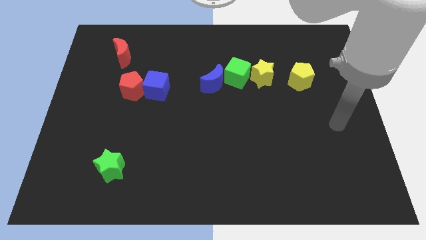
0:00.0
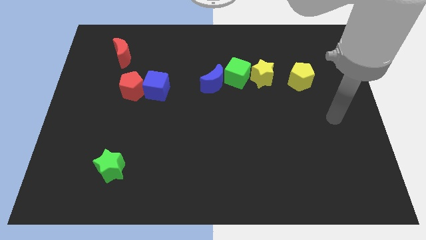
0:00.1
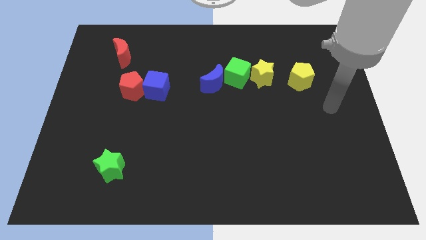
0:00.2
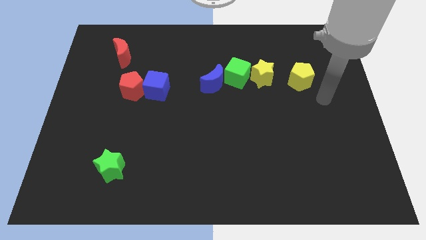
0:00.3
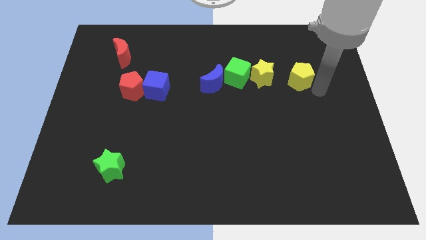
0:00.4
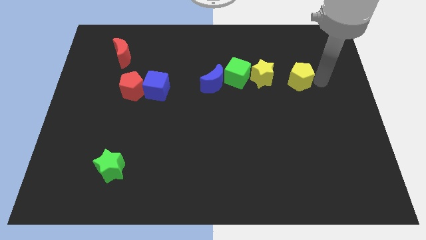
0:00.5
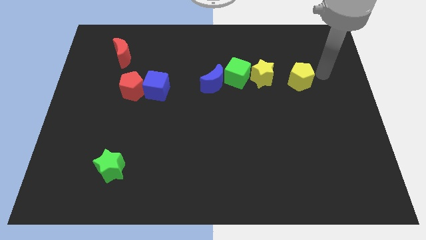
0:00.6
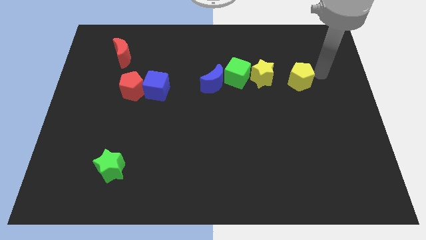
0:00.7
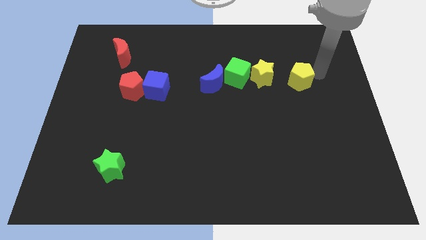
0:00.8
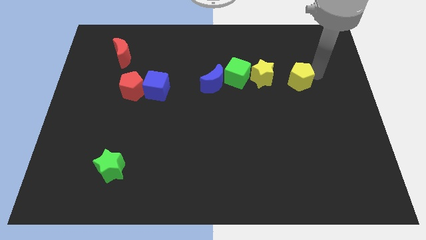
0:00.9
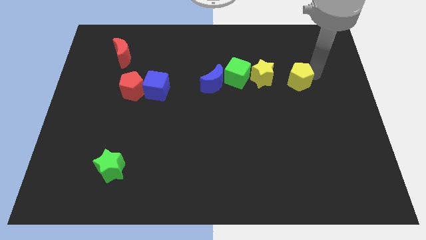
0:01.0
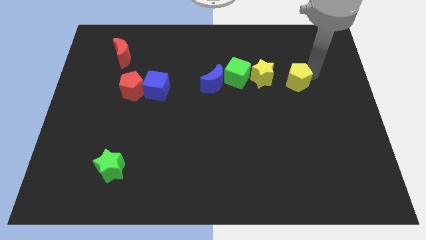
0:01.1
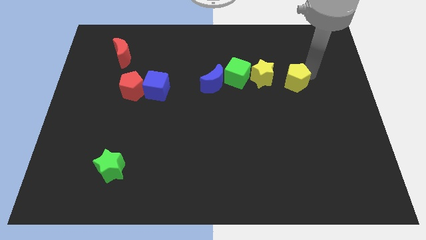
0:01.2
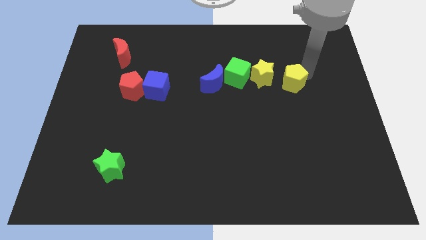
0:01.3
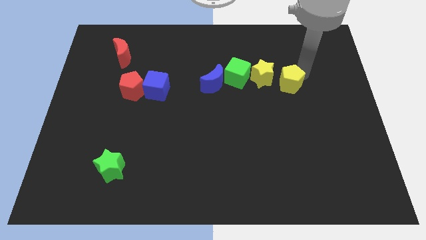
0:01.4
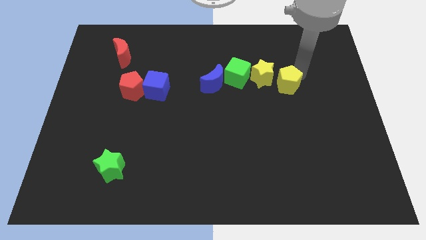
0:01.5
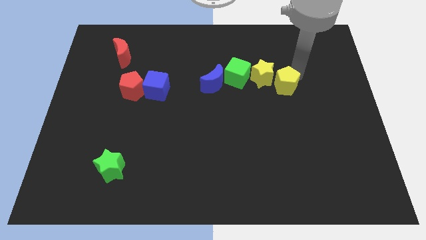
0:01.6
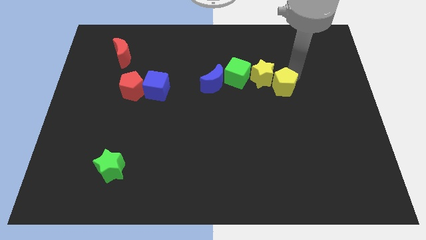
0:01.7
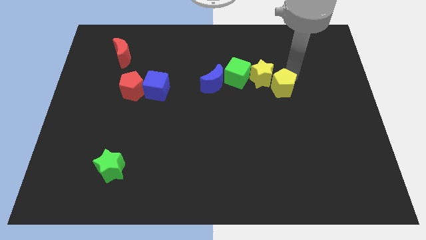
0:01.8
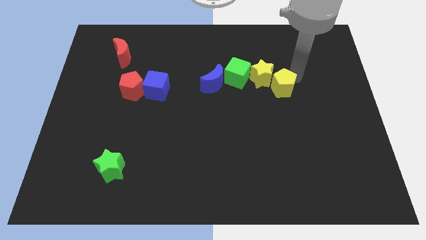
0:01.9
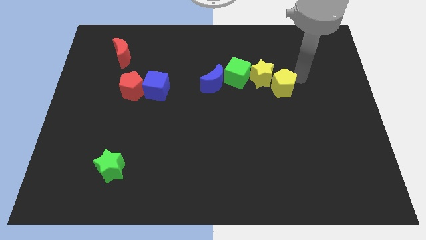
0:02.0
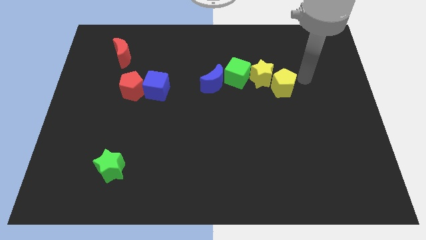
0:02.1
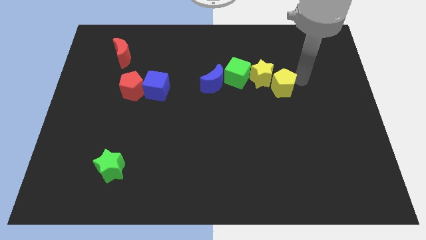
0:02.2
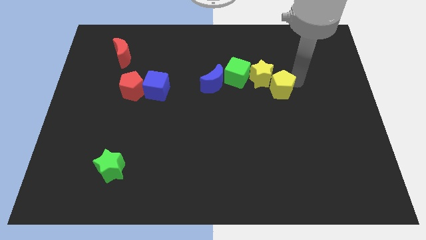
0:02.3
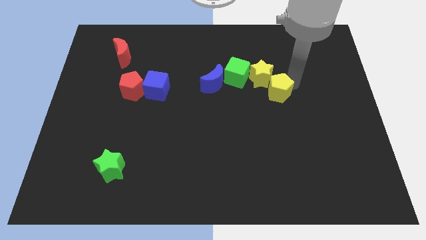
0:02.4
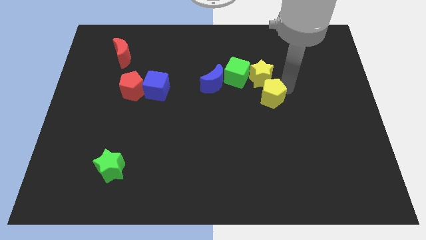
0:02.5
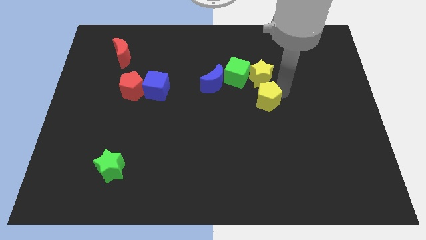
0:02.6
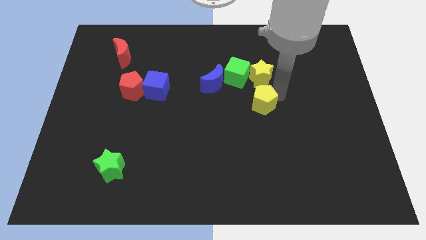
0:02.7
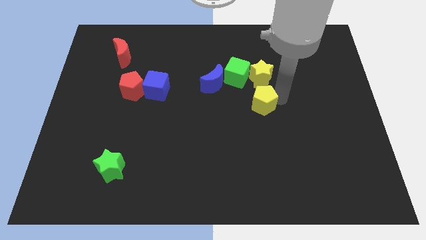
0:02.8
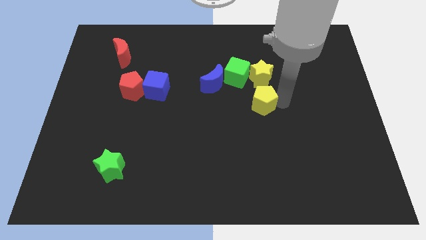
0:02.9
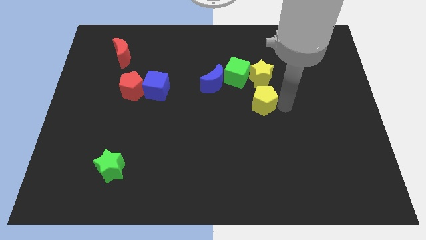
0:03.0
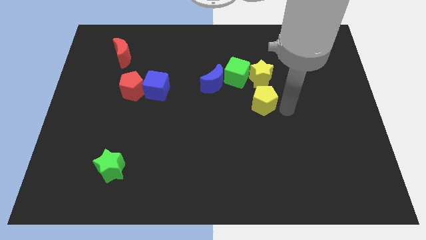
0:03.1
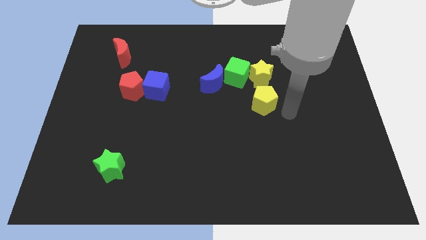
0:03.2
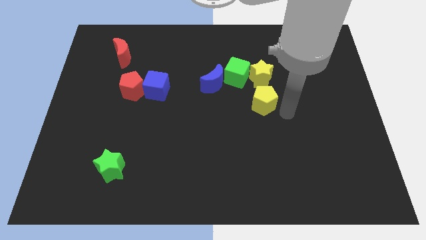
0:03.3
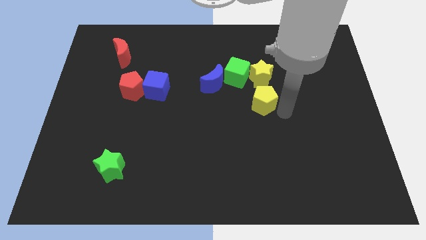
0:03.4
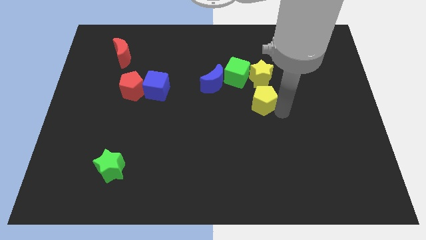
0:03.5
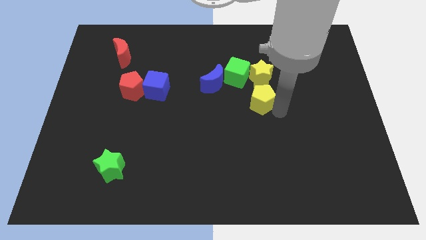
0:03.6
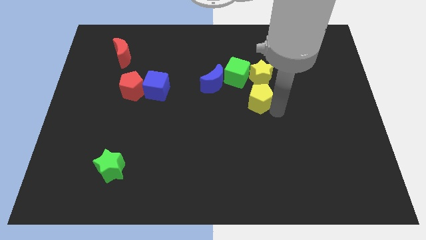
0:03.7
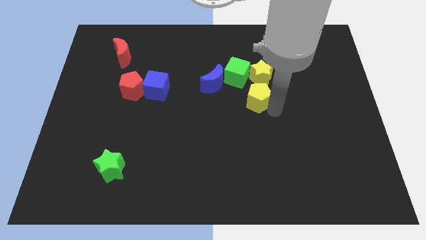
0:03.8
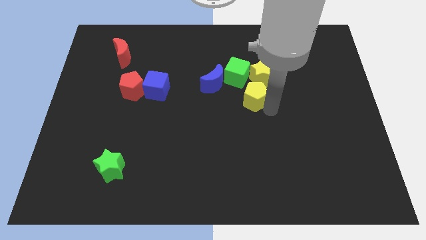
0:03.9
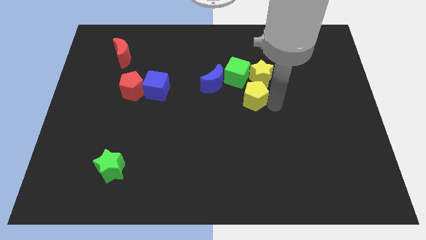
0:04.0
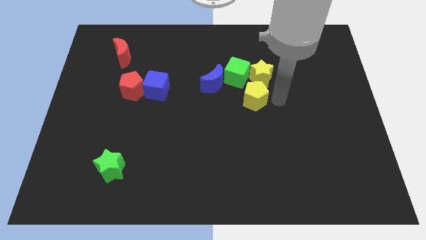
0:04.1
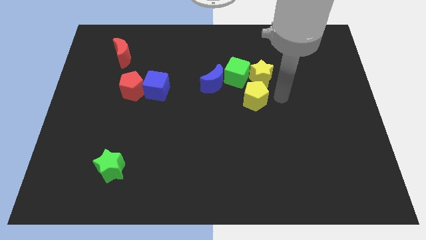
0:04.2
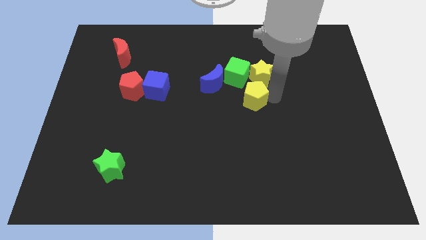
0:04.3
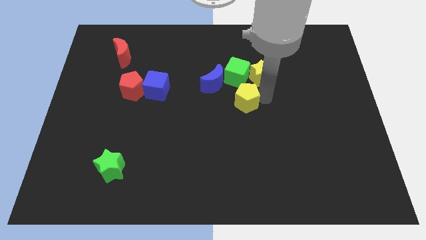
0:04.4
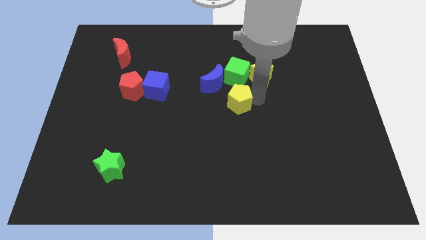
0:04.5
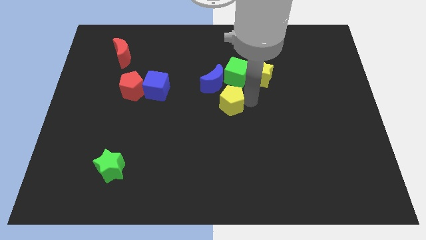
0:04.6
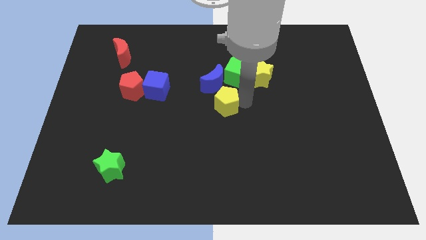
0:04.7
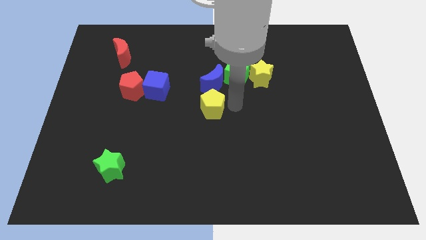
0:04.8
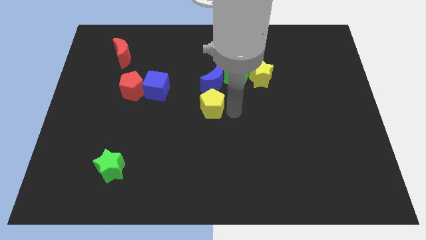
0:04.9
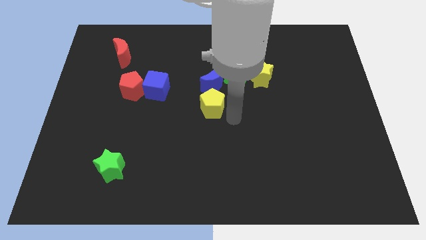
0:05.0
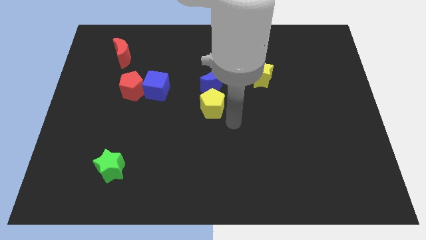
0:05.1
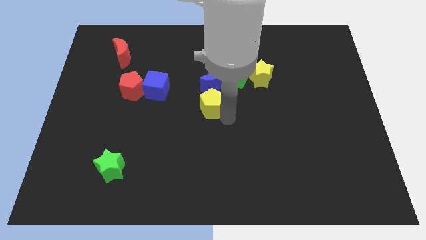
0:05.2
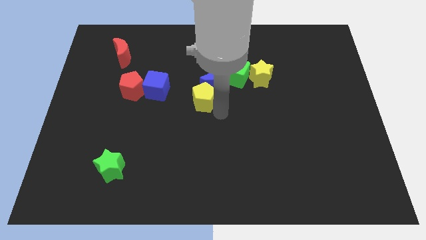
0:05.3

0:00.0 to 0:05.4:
push the yellow pentagon to the left

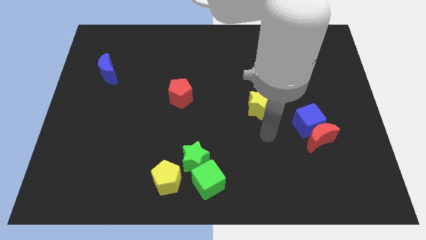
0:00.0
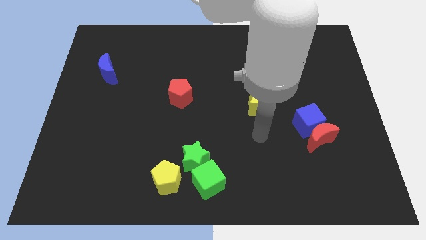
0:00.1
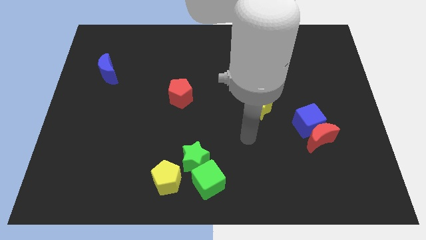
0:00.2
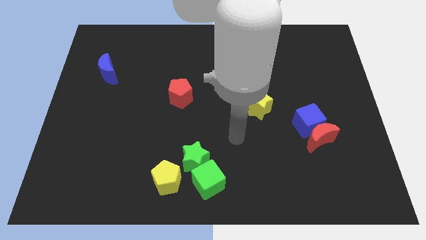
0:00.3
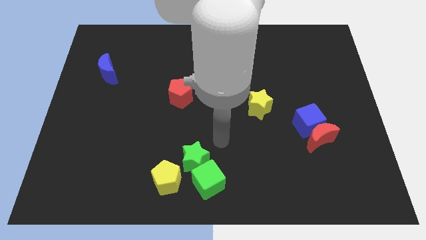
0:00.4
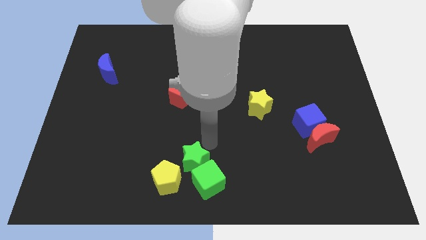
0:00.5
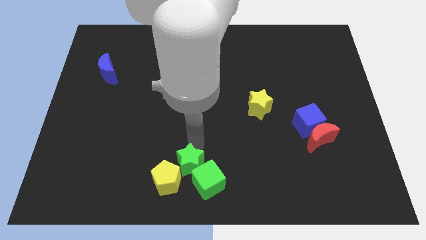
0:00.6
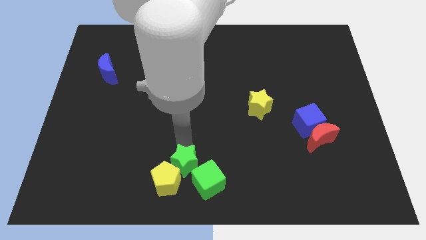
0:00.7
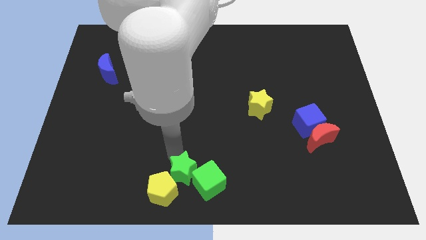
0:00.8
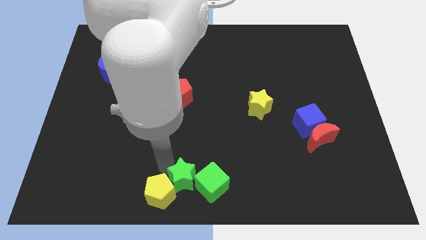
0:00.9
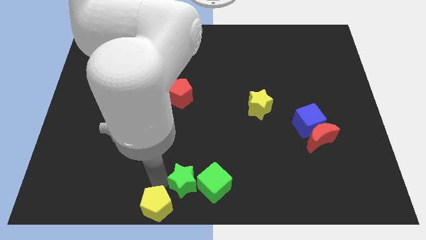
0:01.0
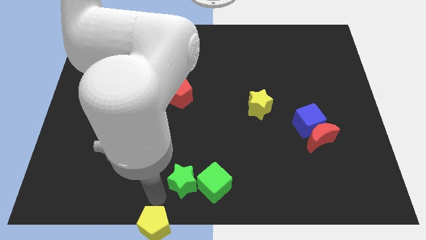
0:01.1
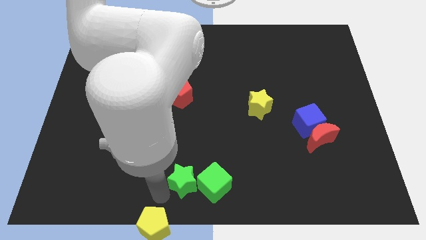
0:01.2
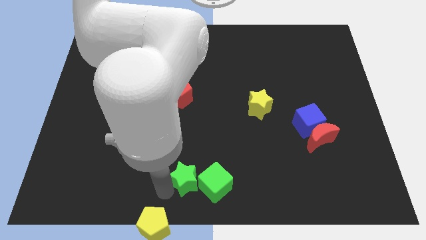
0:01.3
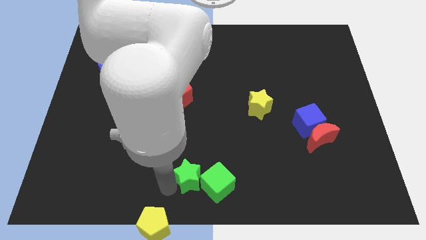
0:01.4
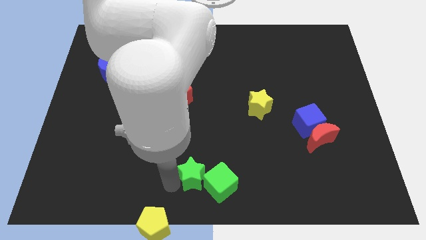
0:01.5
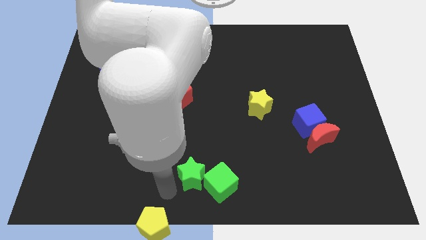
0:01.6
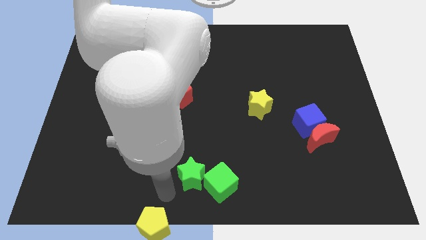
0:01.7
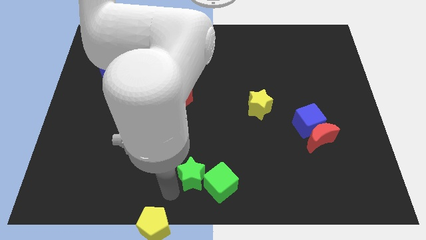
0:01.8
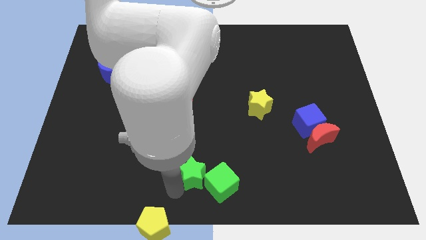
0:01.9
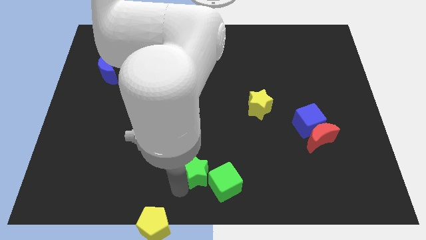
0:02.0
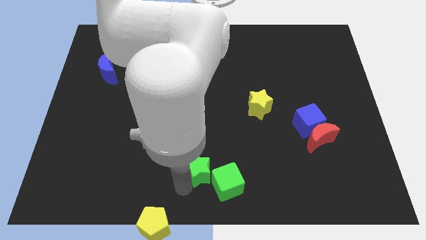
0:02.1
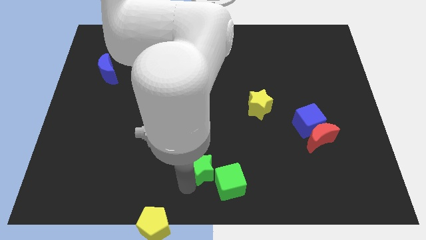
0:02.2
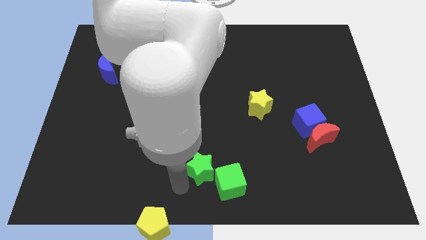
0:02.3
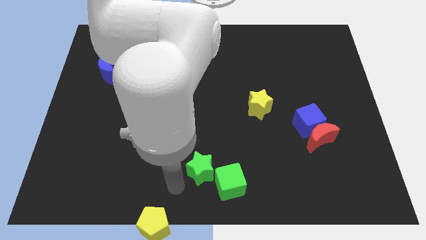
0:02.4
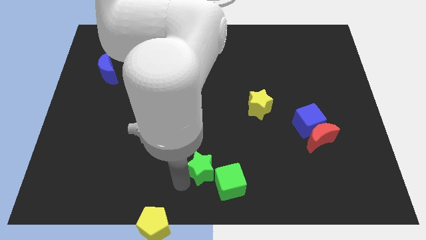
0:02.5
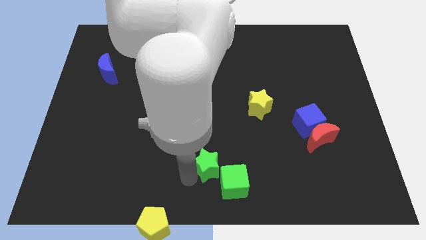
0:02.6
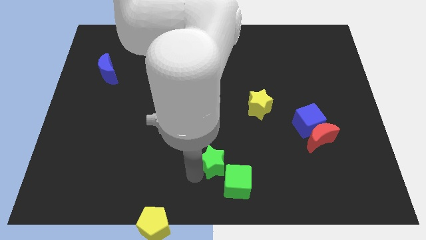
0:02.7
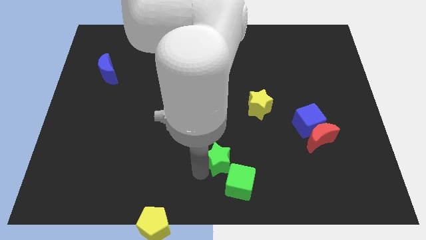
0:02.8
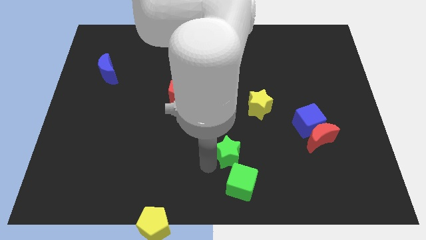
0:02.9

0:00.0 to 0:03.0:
move the green star right a bit
